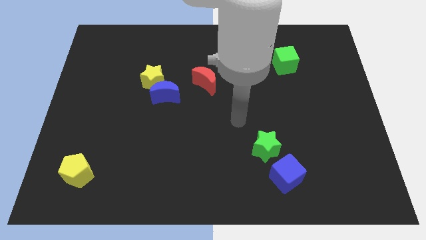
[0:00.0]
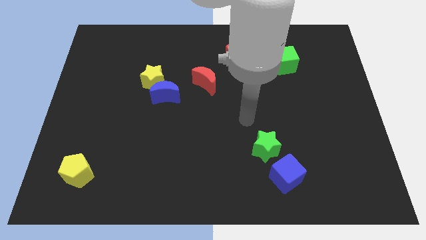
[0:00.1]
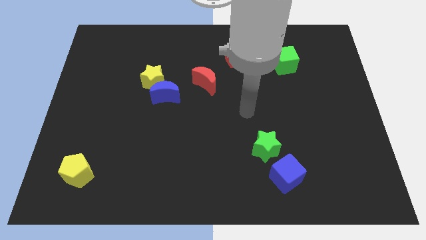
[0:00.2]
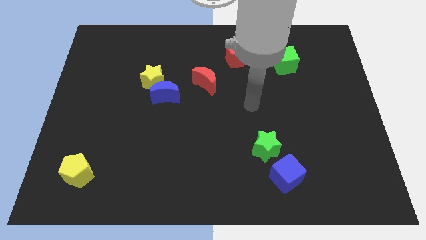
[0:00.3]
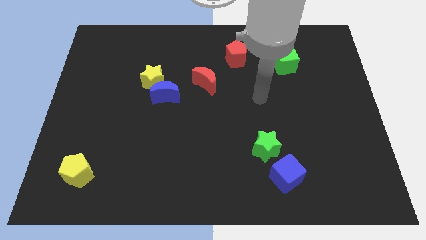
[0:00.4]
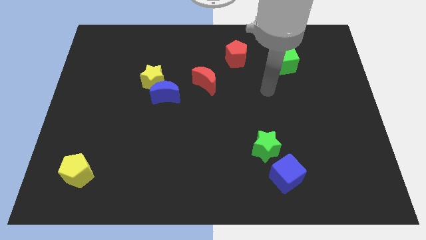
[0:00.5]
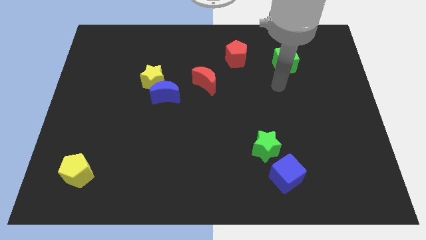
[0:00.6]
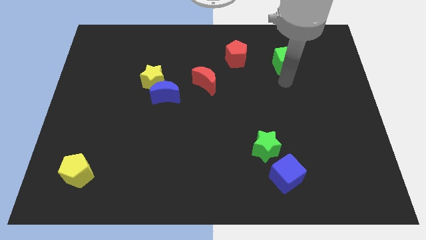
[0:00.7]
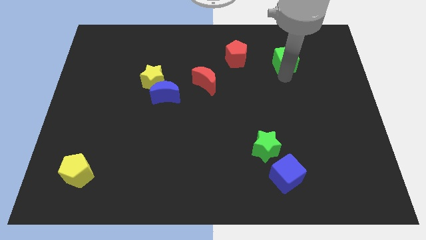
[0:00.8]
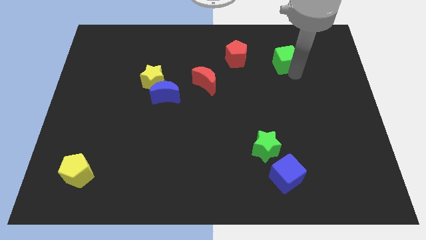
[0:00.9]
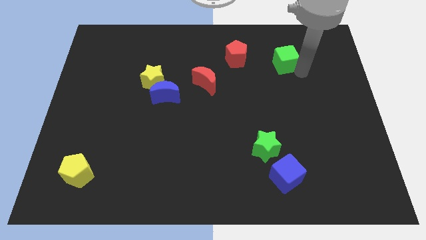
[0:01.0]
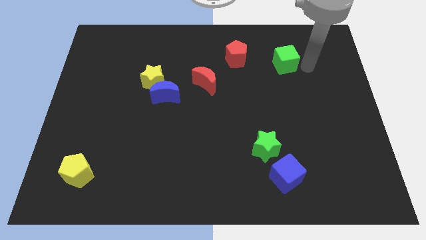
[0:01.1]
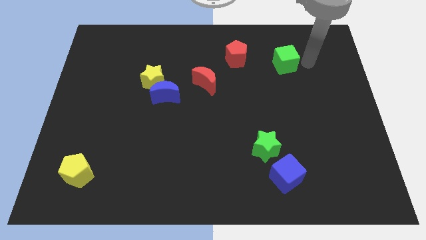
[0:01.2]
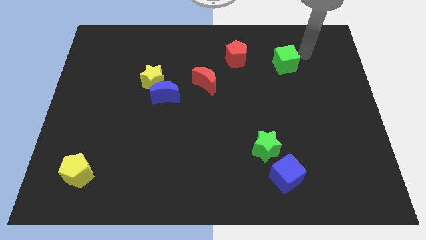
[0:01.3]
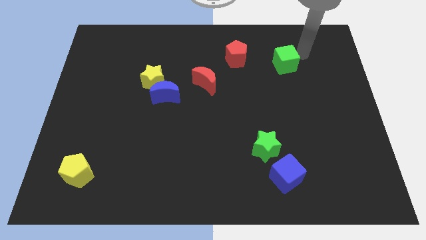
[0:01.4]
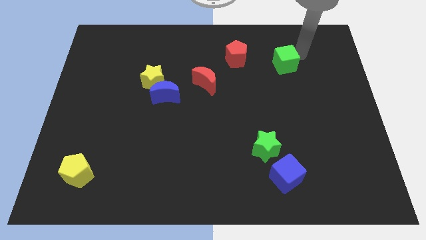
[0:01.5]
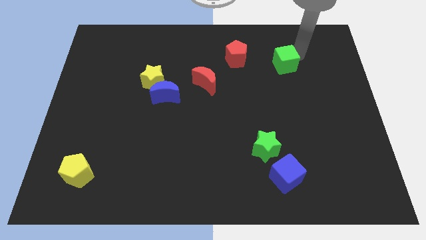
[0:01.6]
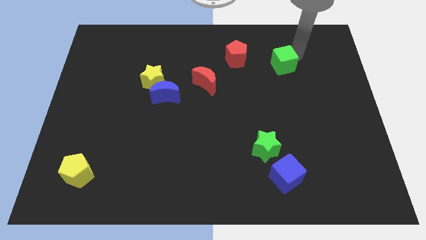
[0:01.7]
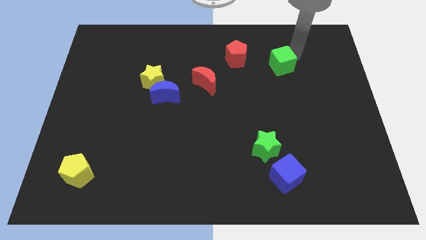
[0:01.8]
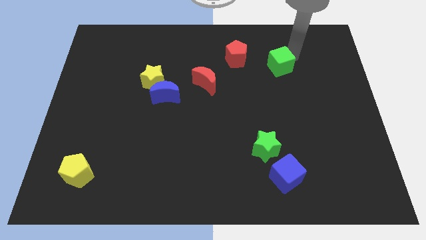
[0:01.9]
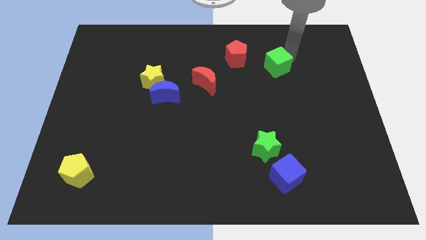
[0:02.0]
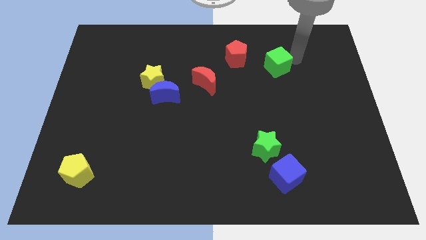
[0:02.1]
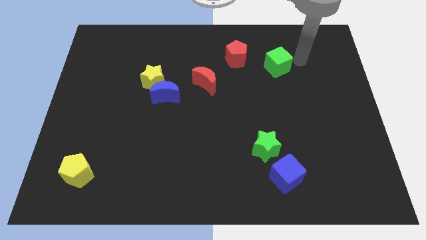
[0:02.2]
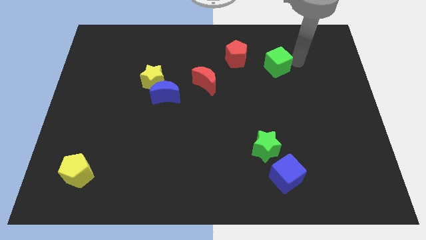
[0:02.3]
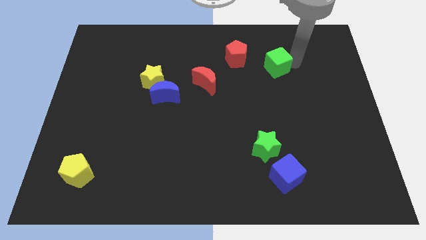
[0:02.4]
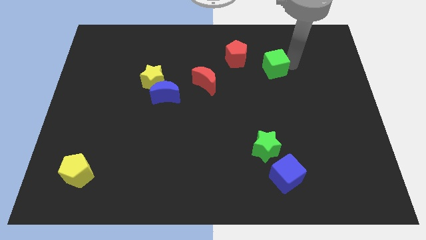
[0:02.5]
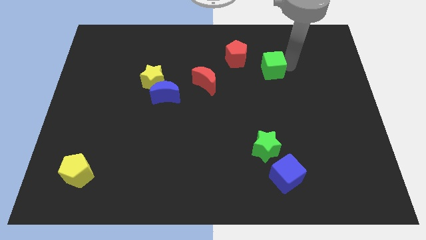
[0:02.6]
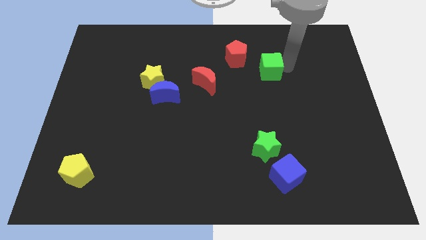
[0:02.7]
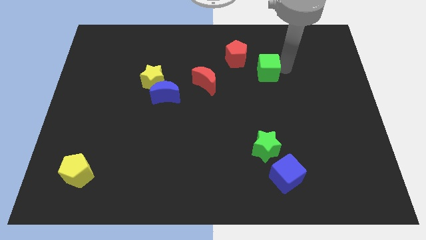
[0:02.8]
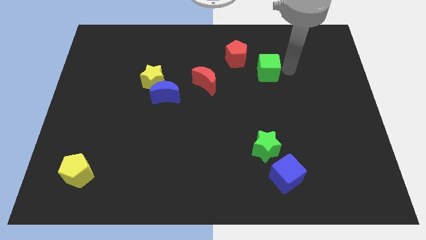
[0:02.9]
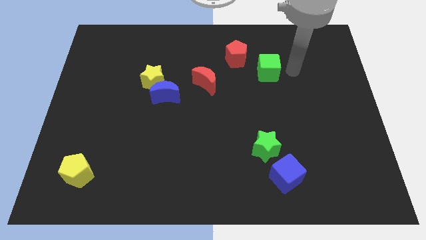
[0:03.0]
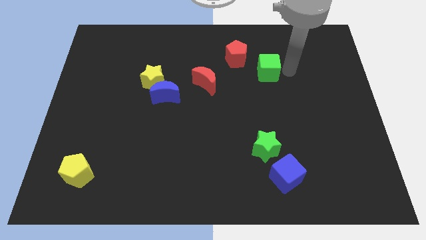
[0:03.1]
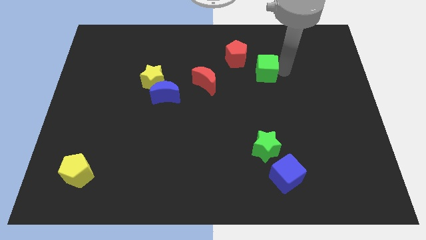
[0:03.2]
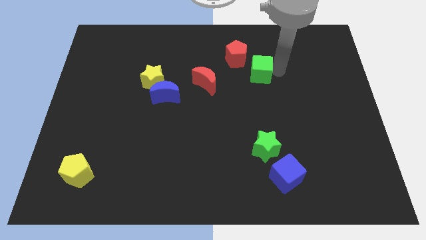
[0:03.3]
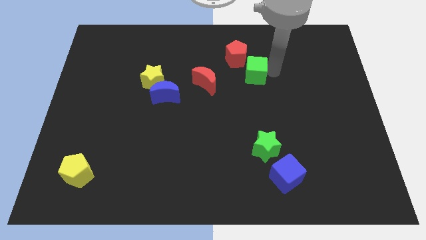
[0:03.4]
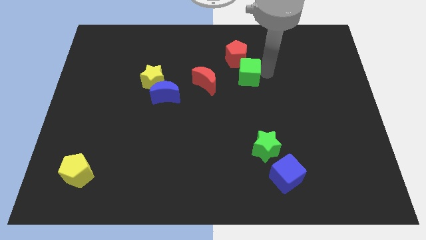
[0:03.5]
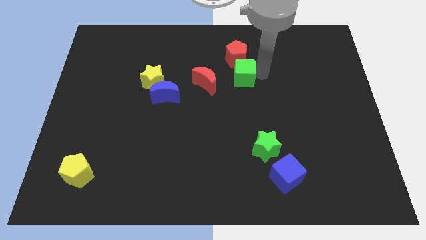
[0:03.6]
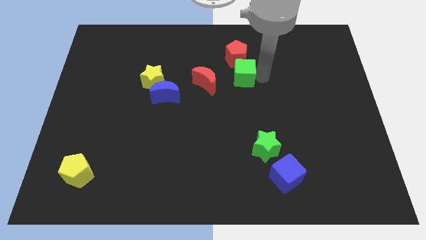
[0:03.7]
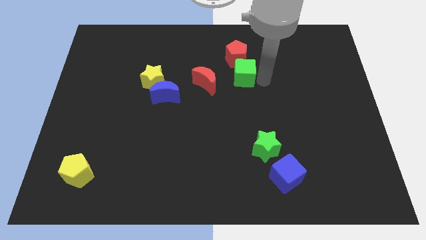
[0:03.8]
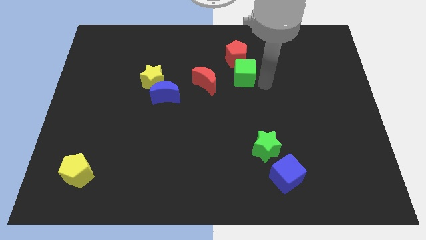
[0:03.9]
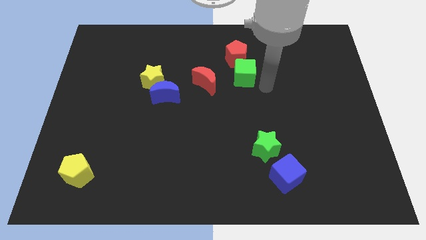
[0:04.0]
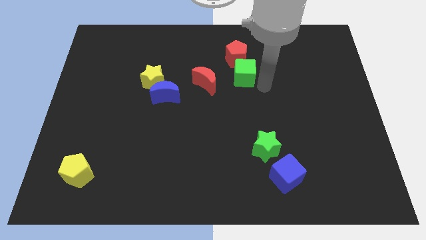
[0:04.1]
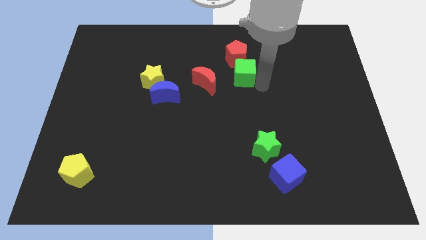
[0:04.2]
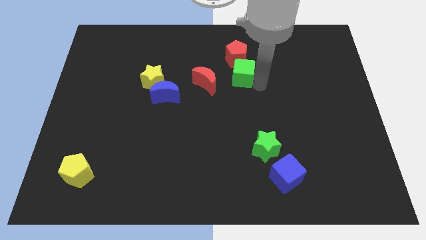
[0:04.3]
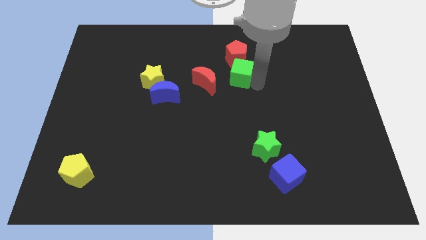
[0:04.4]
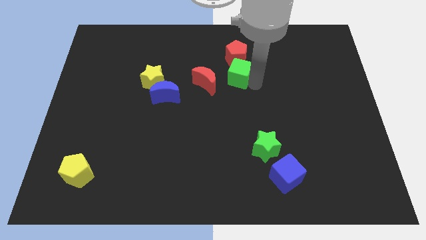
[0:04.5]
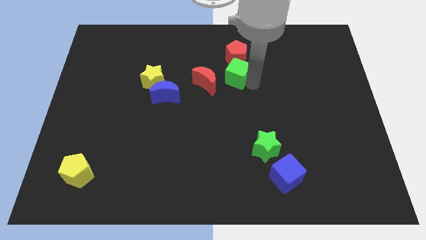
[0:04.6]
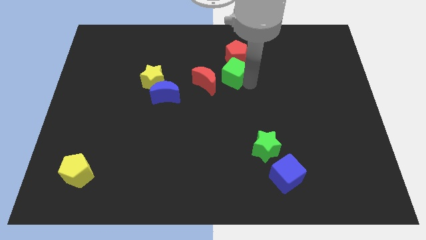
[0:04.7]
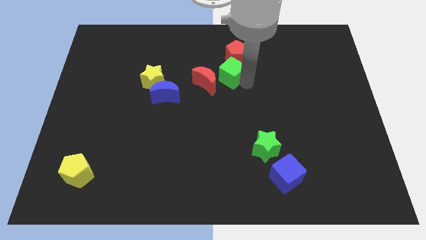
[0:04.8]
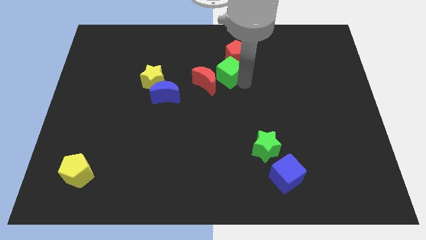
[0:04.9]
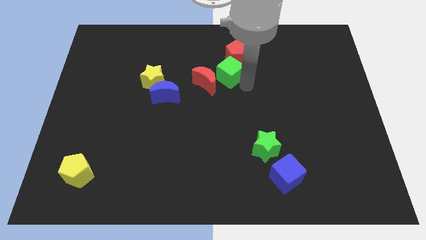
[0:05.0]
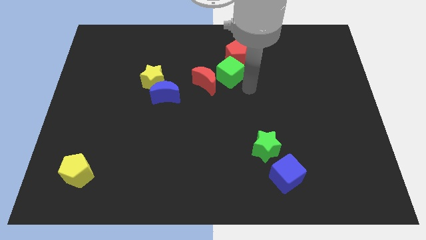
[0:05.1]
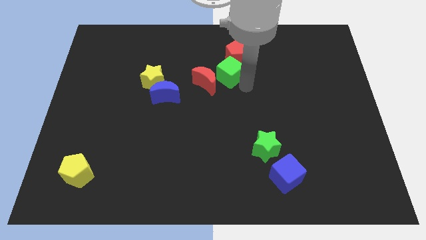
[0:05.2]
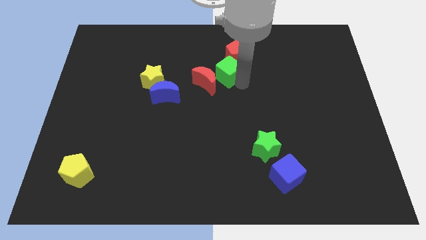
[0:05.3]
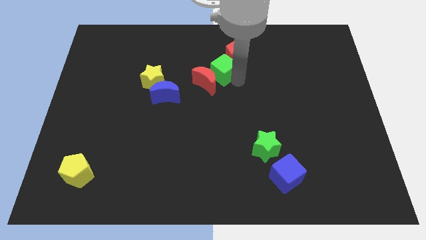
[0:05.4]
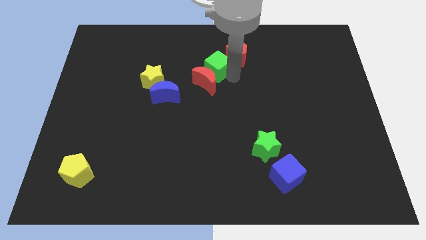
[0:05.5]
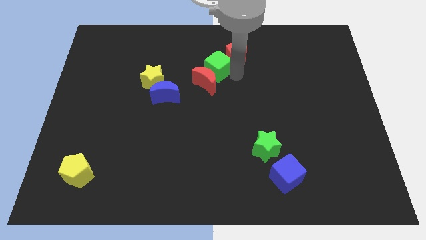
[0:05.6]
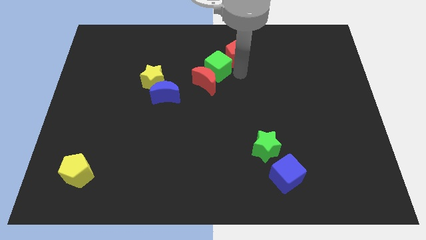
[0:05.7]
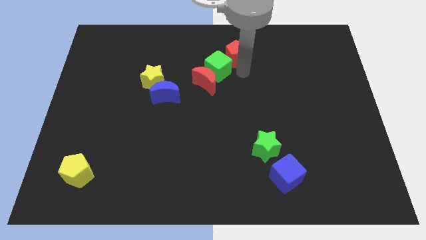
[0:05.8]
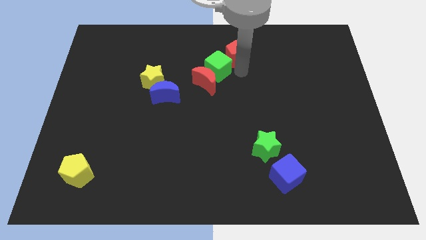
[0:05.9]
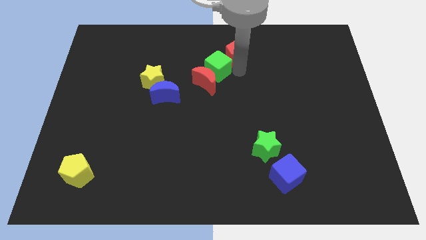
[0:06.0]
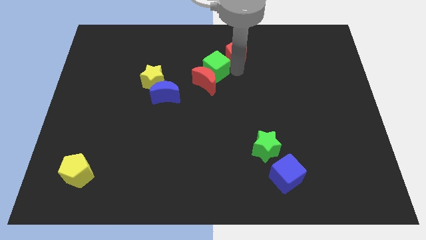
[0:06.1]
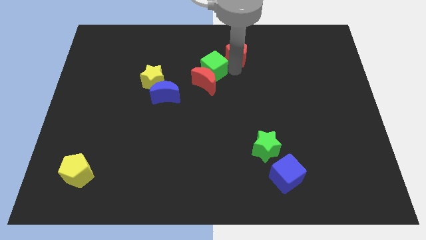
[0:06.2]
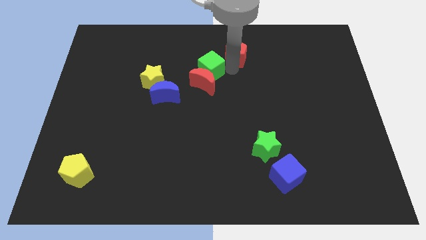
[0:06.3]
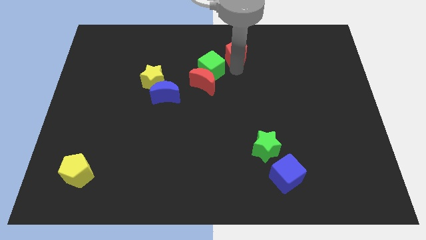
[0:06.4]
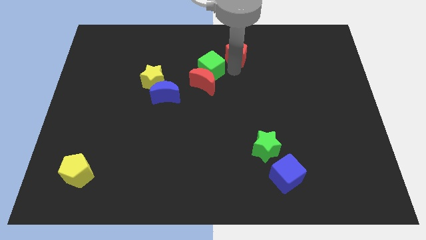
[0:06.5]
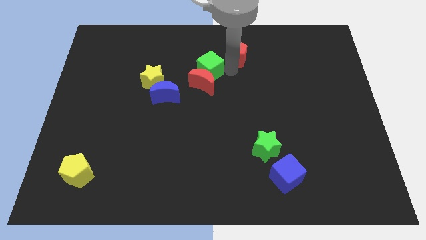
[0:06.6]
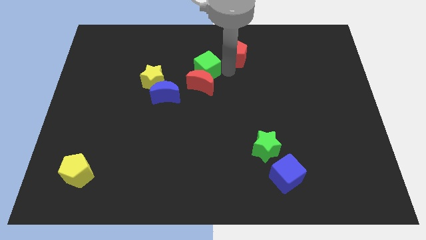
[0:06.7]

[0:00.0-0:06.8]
slide the green cube to the left

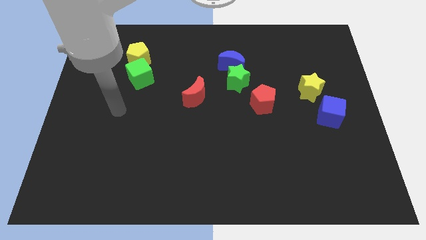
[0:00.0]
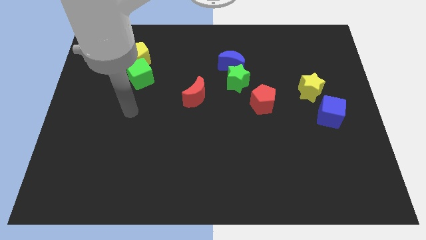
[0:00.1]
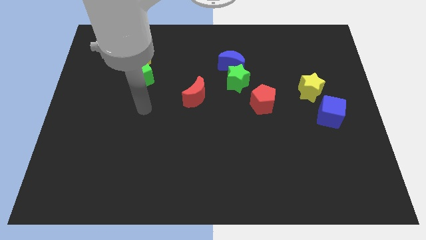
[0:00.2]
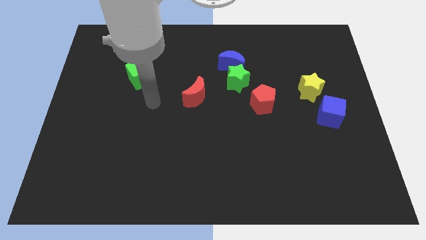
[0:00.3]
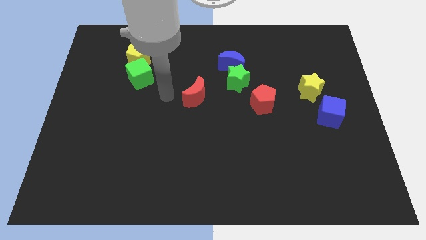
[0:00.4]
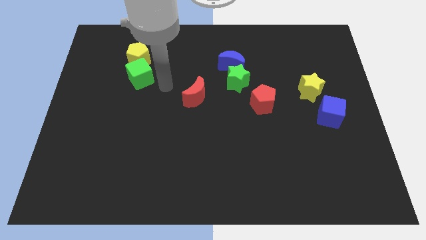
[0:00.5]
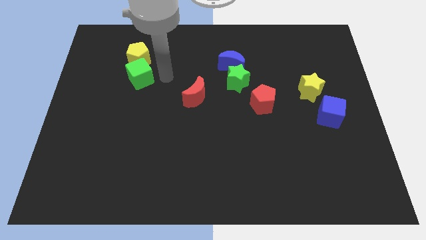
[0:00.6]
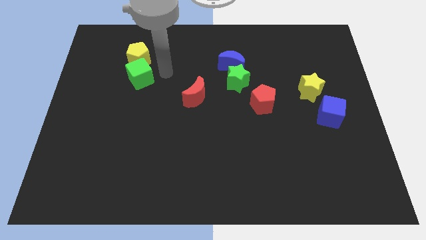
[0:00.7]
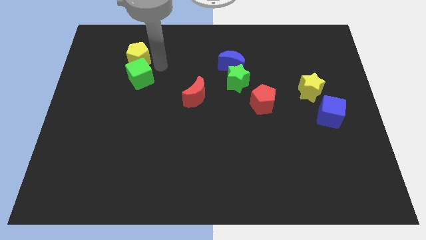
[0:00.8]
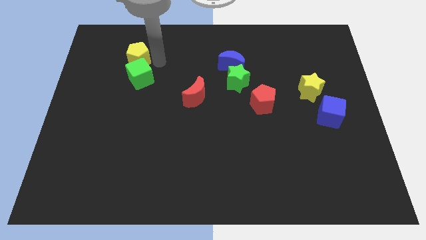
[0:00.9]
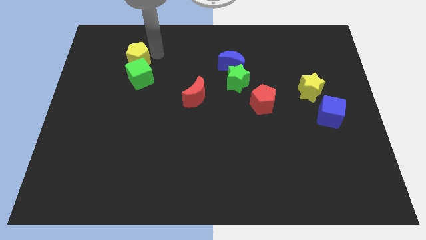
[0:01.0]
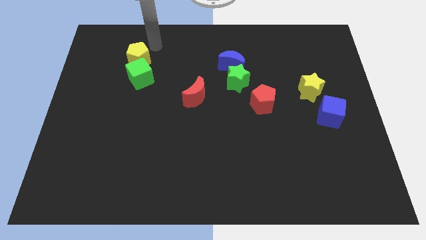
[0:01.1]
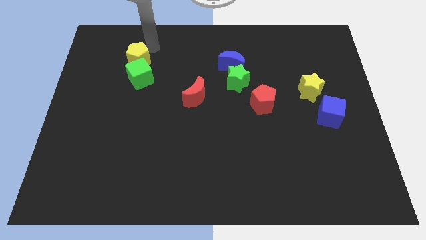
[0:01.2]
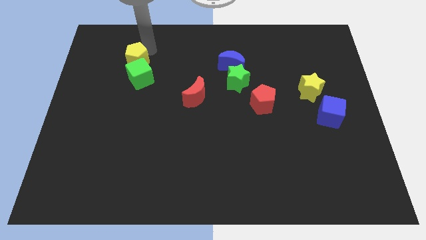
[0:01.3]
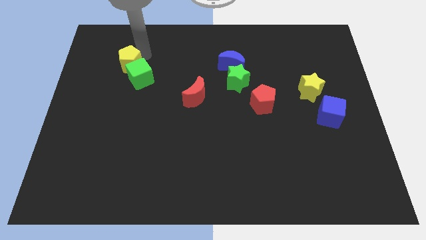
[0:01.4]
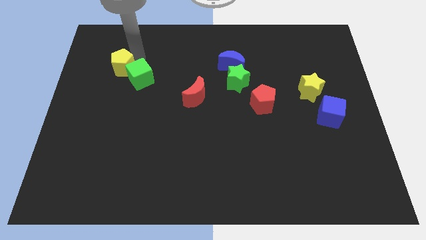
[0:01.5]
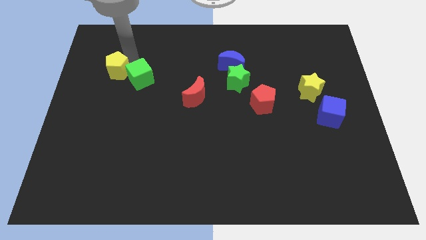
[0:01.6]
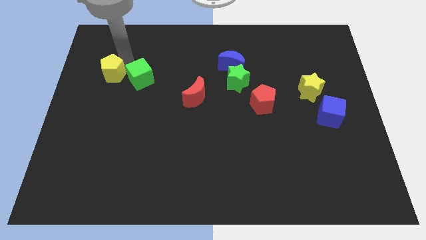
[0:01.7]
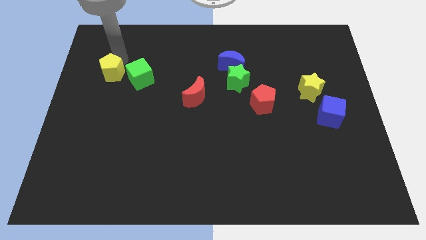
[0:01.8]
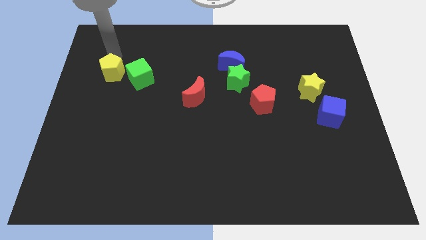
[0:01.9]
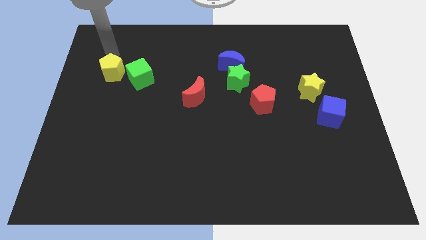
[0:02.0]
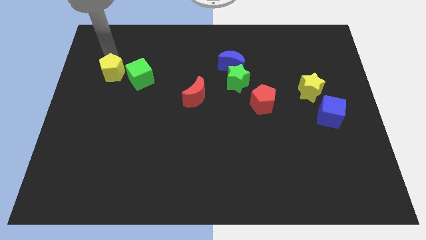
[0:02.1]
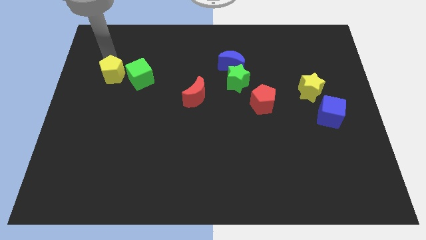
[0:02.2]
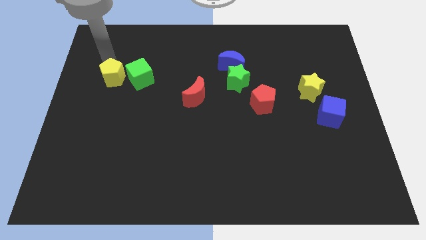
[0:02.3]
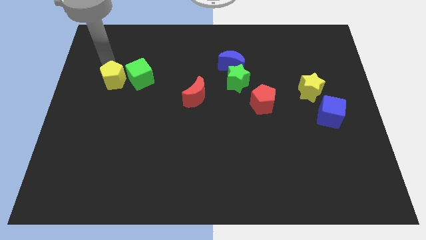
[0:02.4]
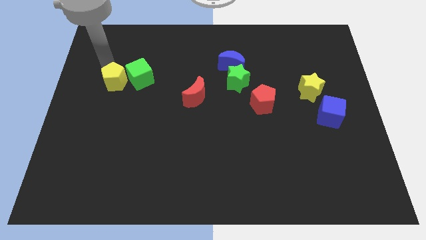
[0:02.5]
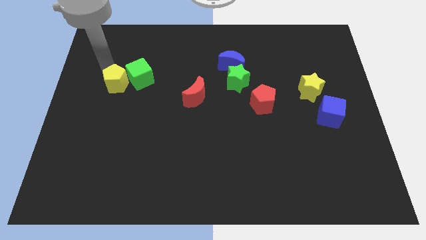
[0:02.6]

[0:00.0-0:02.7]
move the yellow pentagon a little bit downwards
